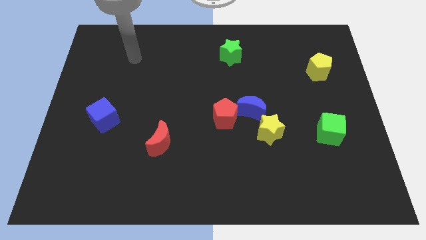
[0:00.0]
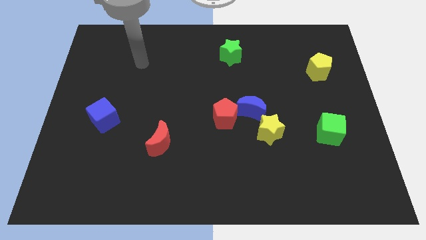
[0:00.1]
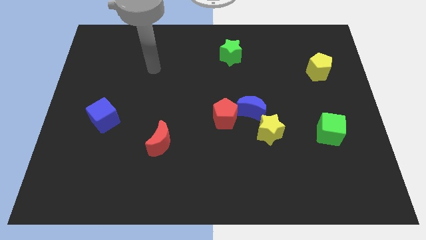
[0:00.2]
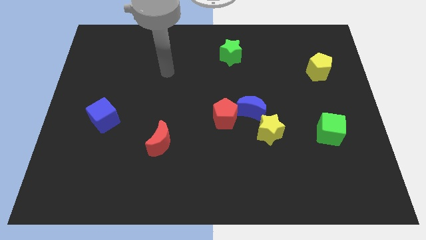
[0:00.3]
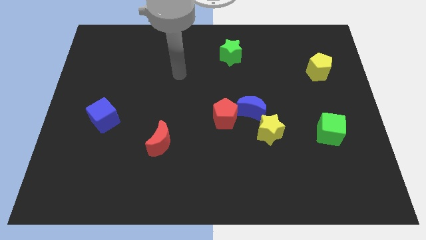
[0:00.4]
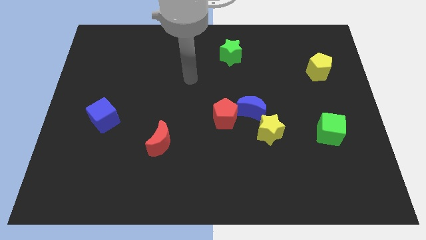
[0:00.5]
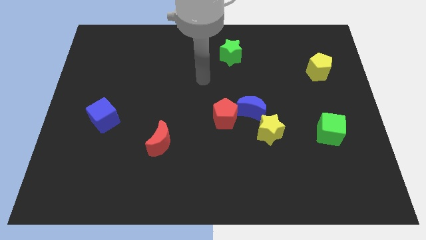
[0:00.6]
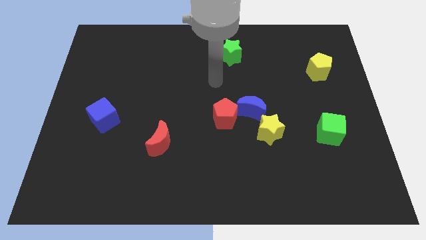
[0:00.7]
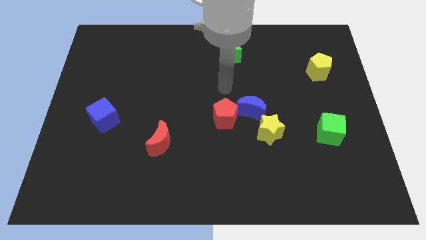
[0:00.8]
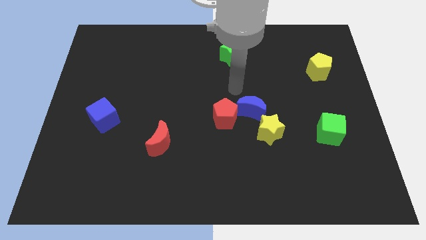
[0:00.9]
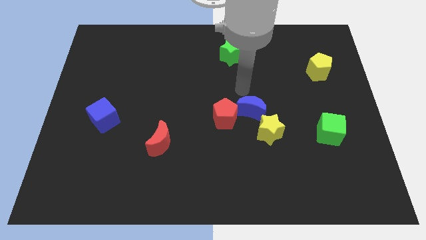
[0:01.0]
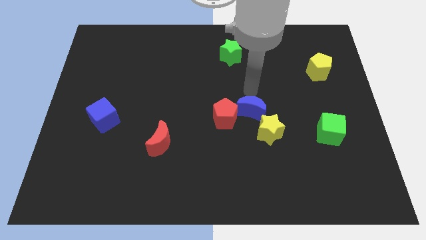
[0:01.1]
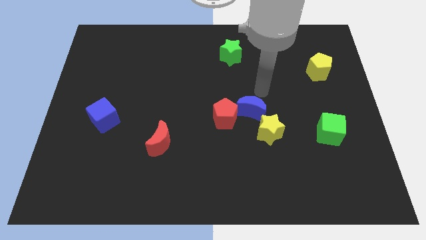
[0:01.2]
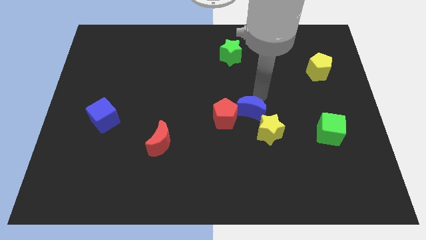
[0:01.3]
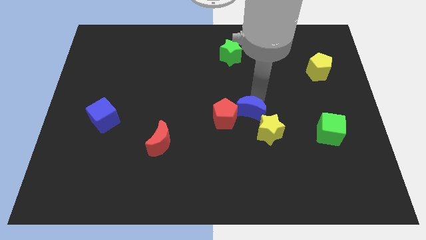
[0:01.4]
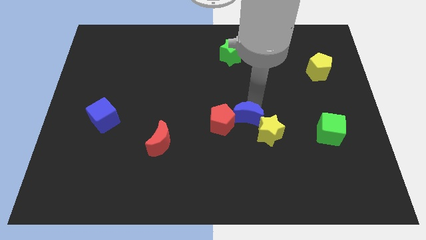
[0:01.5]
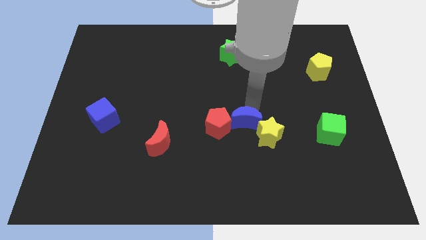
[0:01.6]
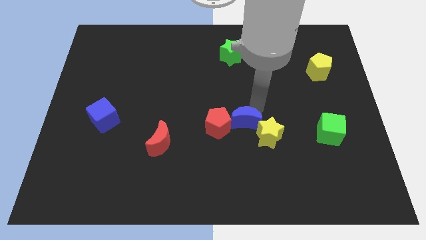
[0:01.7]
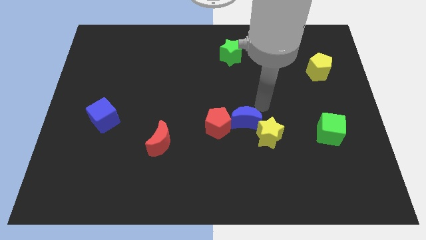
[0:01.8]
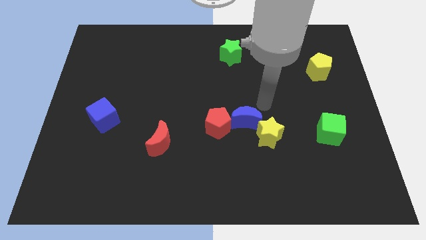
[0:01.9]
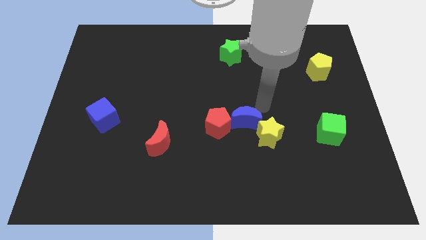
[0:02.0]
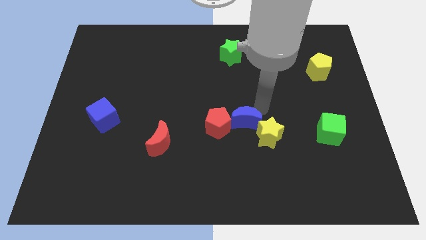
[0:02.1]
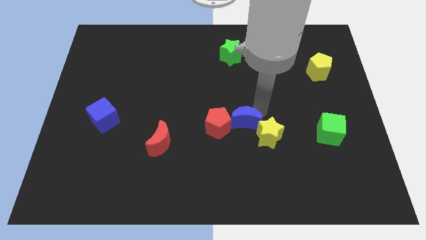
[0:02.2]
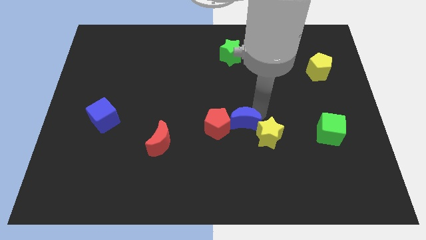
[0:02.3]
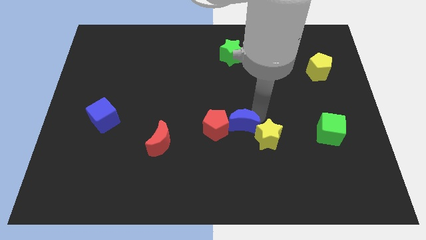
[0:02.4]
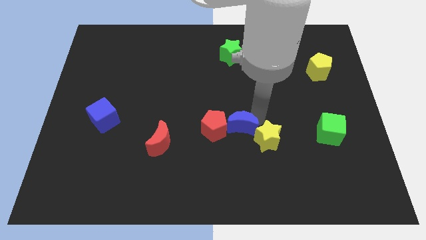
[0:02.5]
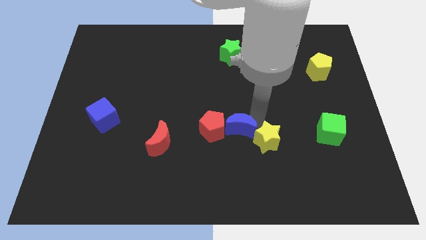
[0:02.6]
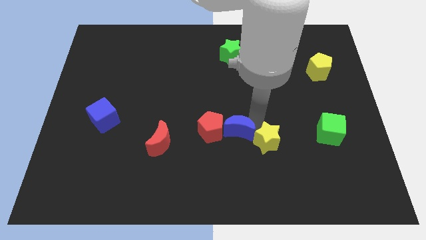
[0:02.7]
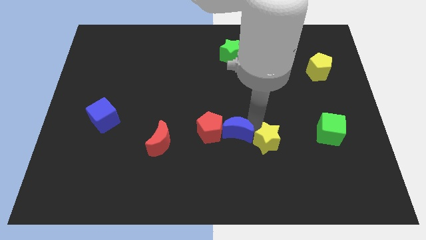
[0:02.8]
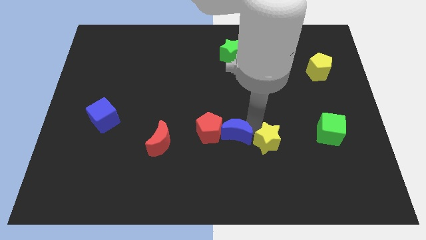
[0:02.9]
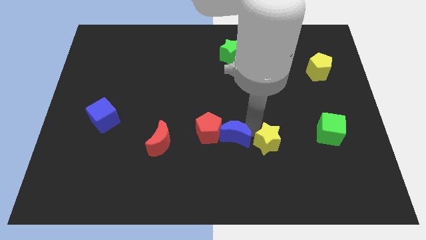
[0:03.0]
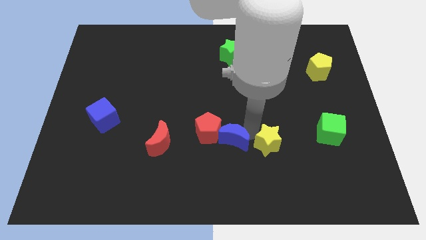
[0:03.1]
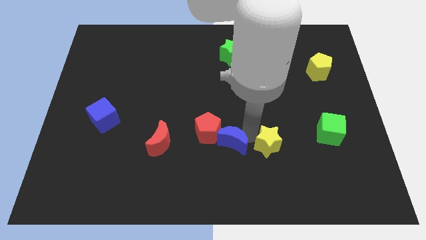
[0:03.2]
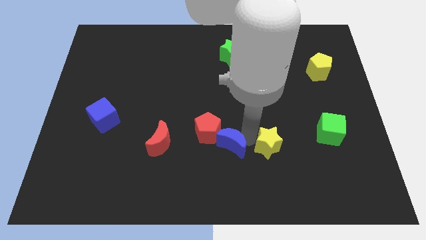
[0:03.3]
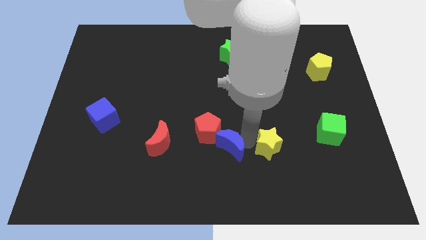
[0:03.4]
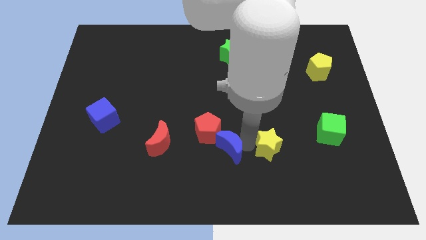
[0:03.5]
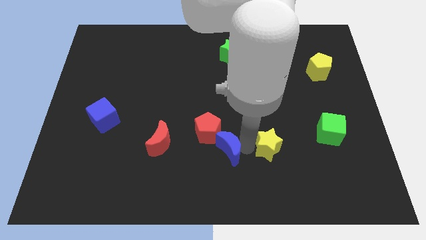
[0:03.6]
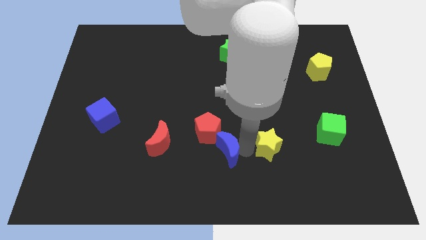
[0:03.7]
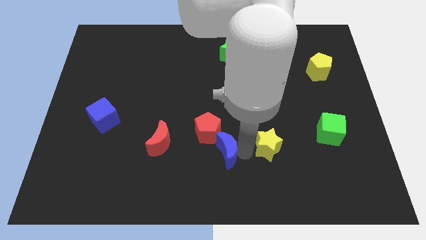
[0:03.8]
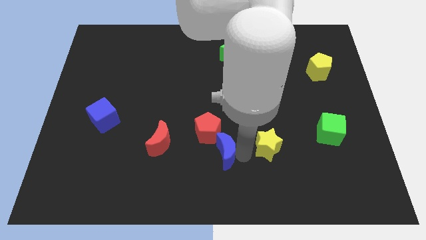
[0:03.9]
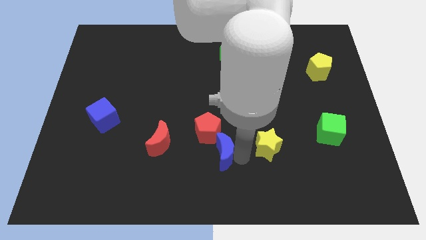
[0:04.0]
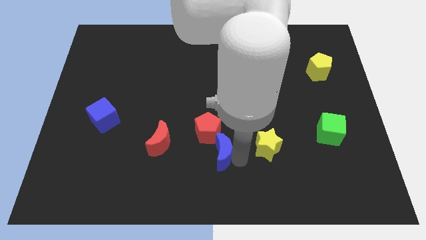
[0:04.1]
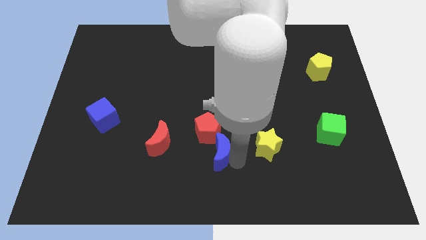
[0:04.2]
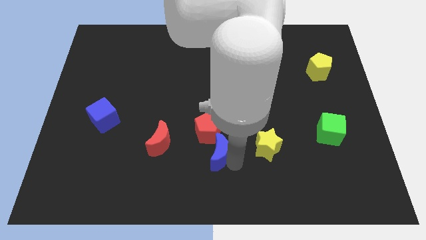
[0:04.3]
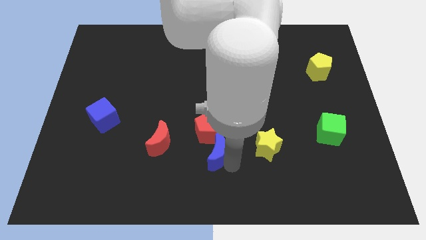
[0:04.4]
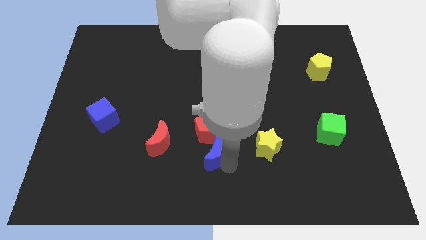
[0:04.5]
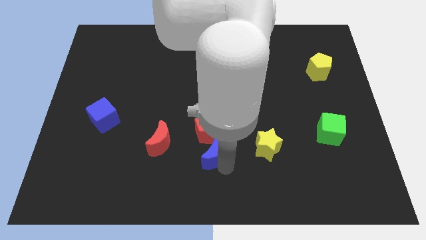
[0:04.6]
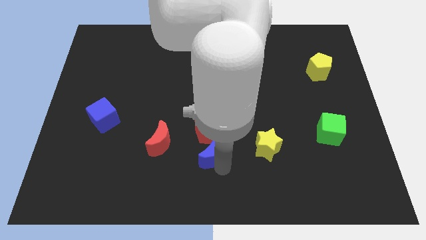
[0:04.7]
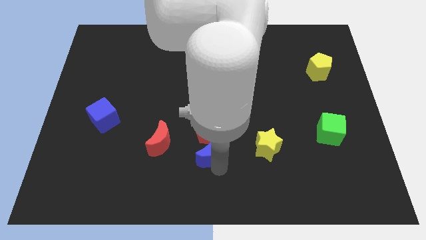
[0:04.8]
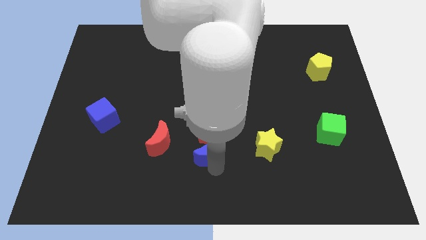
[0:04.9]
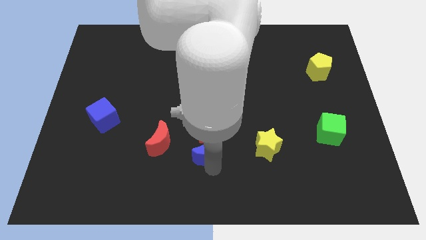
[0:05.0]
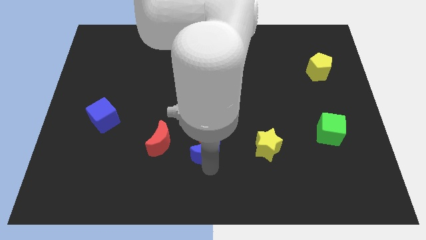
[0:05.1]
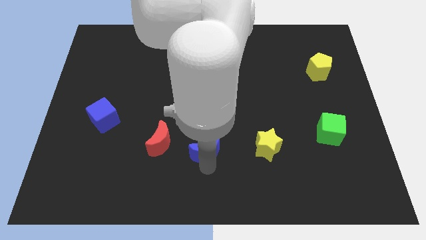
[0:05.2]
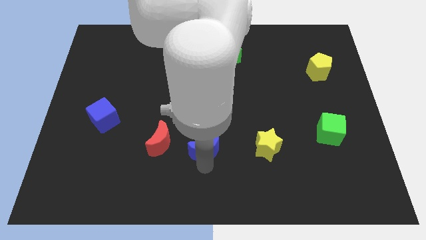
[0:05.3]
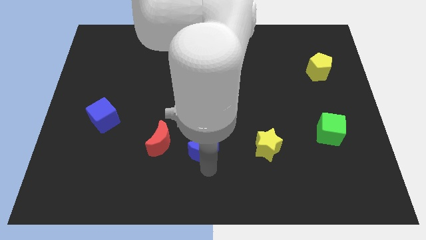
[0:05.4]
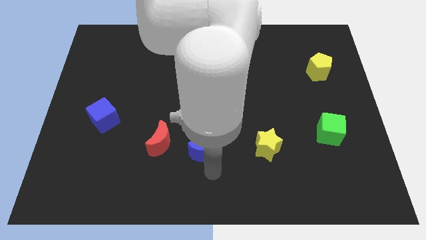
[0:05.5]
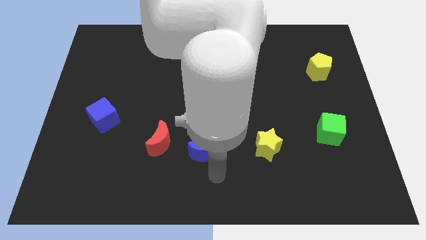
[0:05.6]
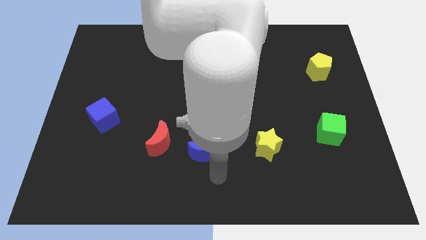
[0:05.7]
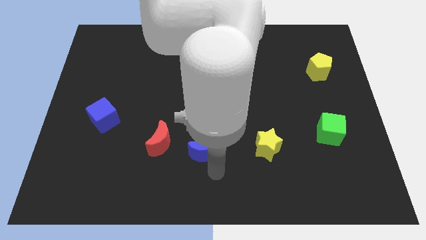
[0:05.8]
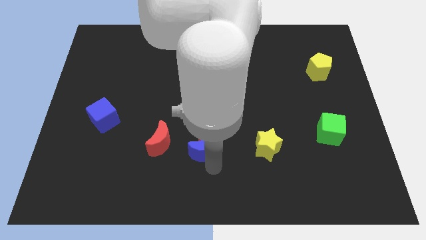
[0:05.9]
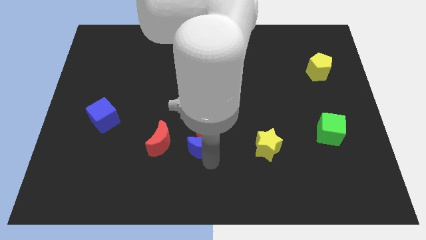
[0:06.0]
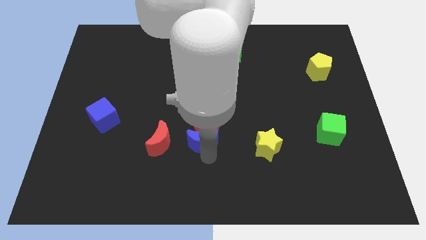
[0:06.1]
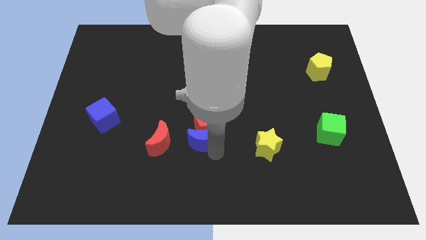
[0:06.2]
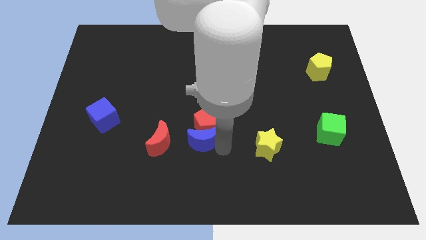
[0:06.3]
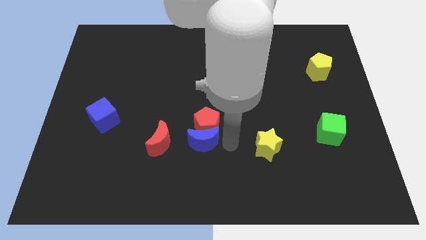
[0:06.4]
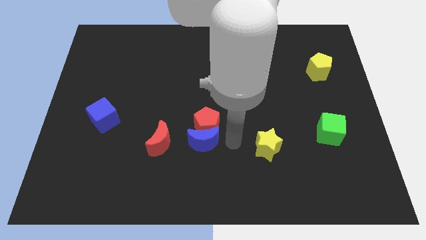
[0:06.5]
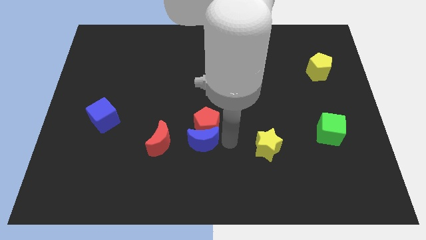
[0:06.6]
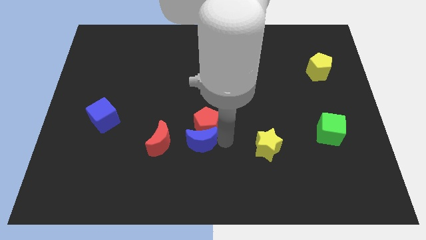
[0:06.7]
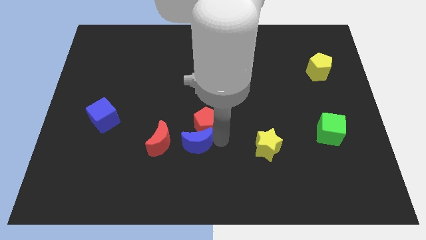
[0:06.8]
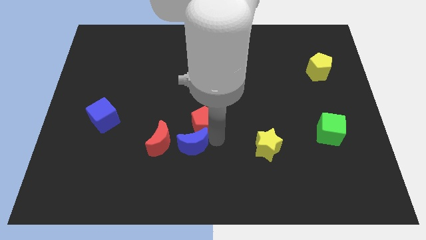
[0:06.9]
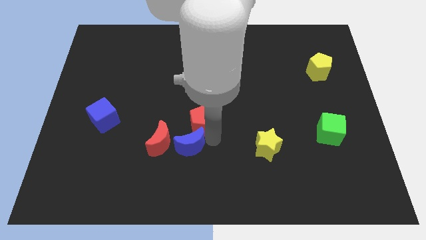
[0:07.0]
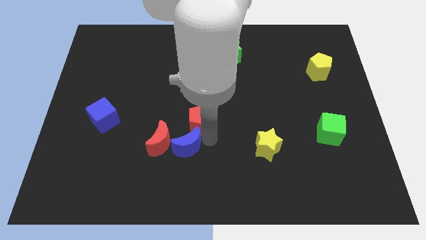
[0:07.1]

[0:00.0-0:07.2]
put the blue moon to the red moon

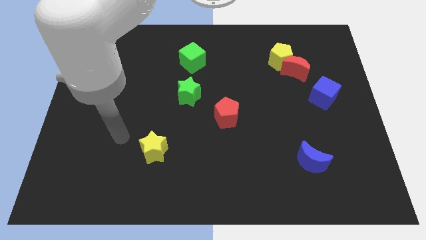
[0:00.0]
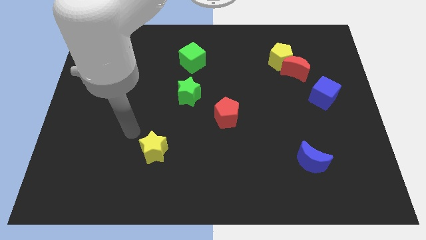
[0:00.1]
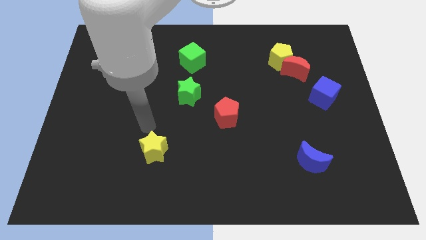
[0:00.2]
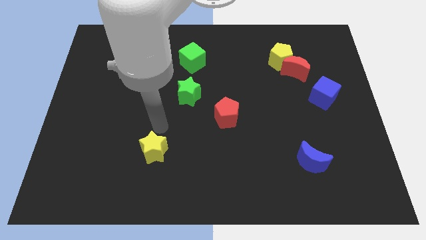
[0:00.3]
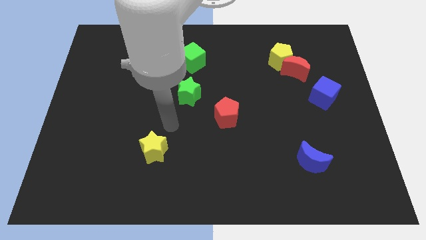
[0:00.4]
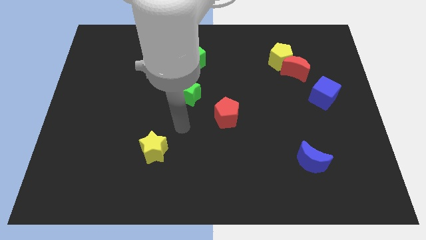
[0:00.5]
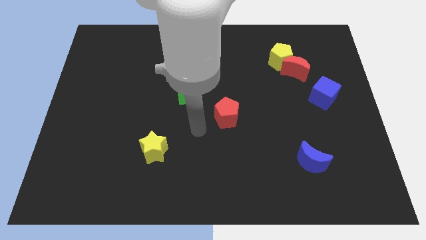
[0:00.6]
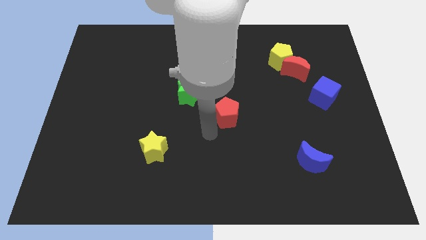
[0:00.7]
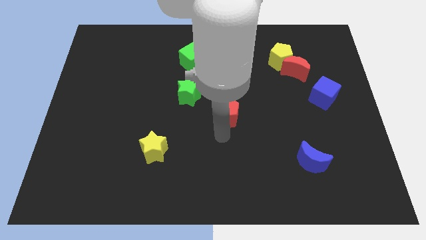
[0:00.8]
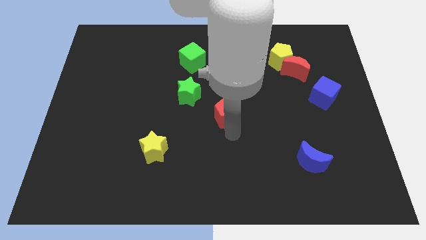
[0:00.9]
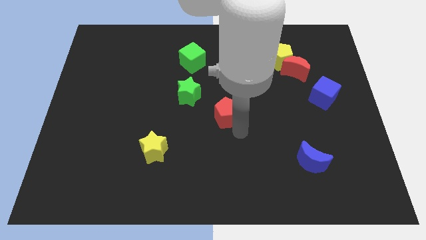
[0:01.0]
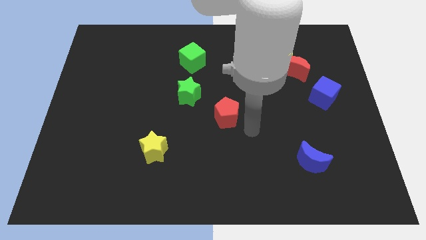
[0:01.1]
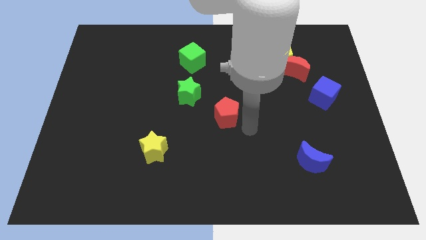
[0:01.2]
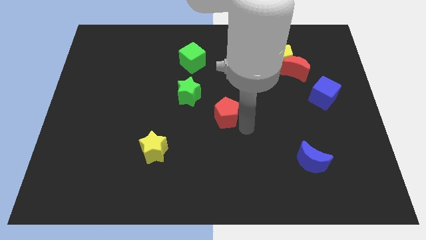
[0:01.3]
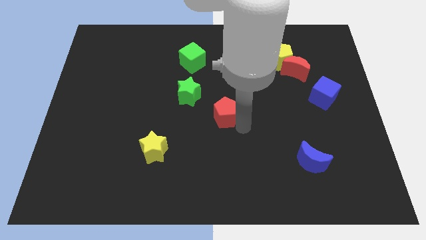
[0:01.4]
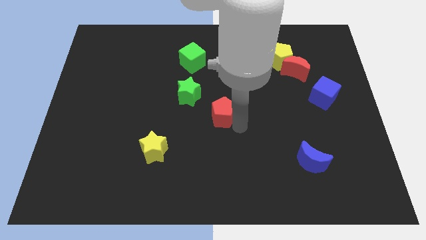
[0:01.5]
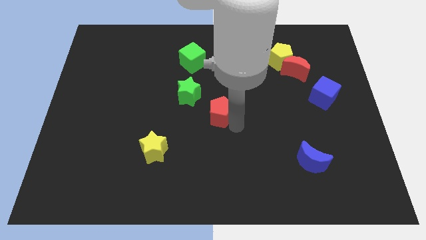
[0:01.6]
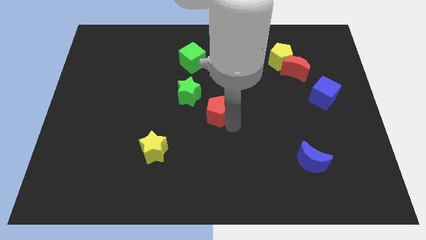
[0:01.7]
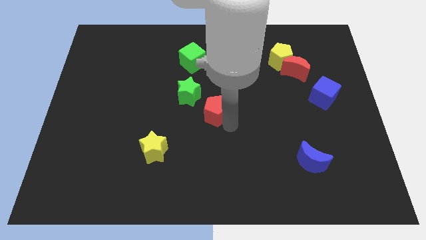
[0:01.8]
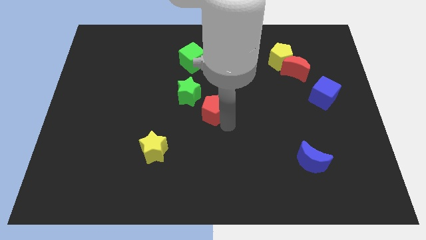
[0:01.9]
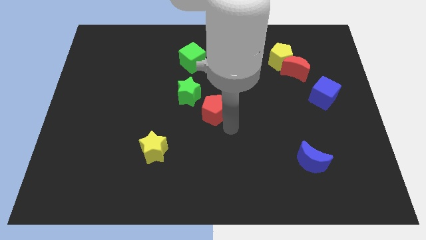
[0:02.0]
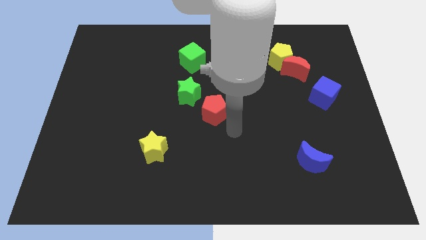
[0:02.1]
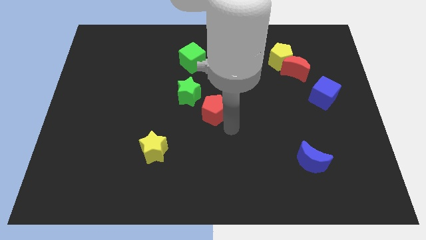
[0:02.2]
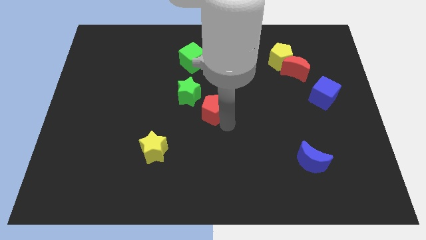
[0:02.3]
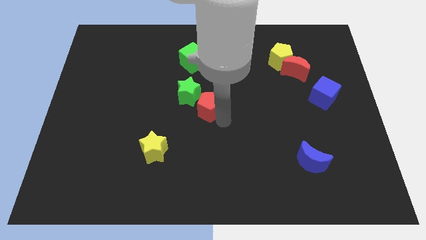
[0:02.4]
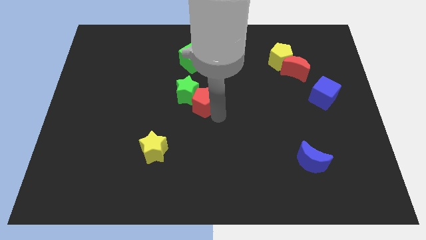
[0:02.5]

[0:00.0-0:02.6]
put the red pentagon next to the green star
